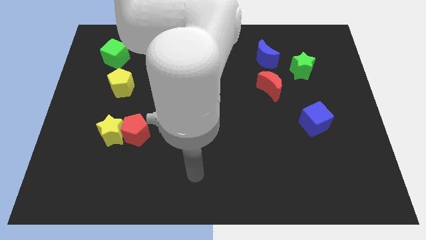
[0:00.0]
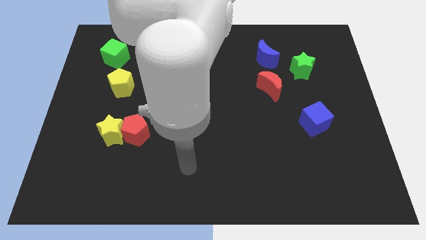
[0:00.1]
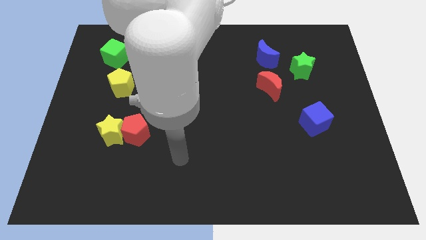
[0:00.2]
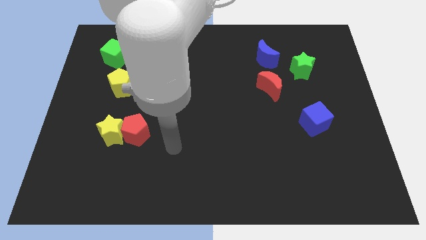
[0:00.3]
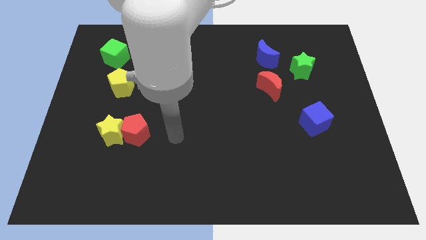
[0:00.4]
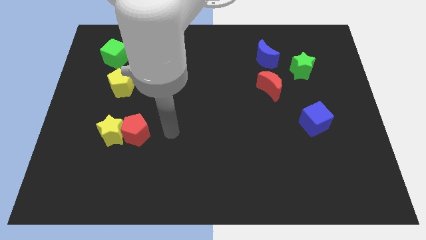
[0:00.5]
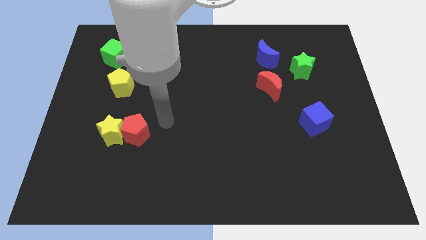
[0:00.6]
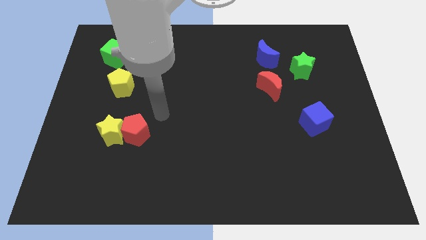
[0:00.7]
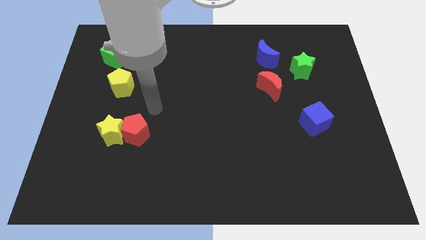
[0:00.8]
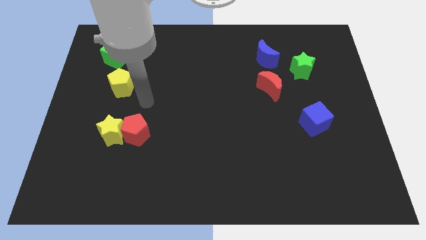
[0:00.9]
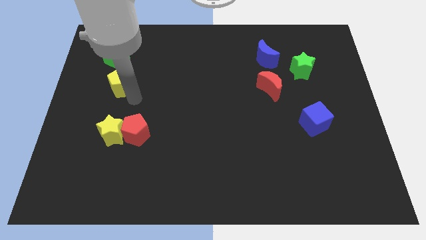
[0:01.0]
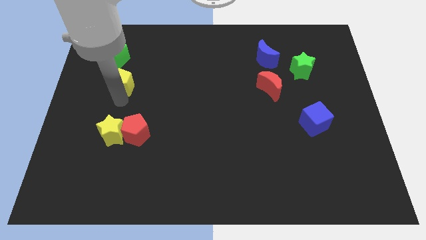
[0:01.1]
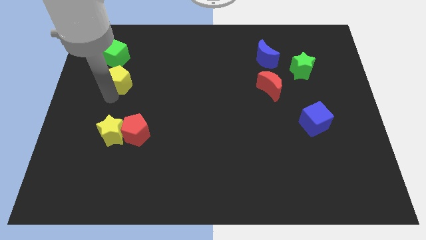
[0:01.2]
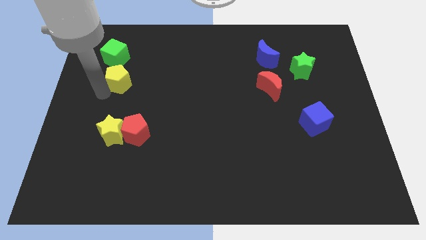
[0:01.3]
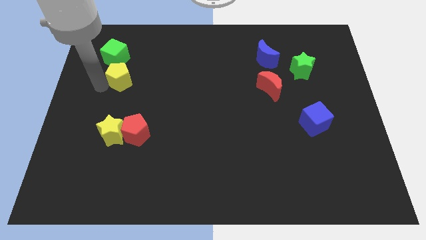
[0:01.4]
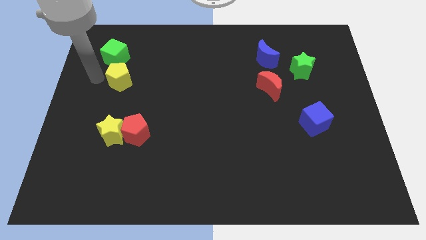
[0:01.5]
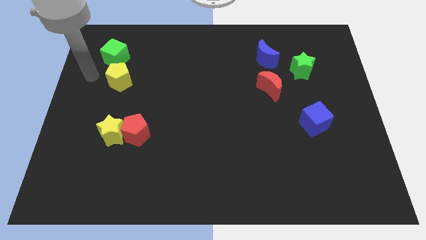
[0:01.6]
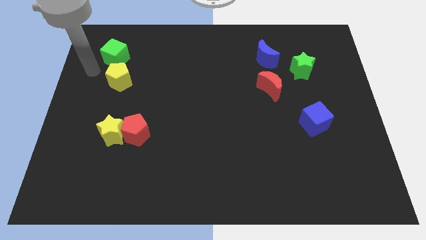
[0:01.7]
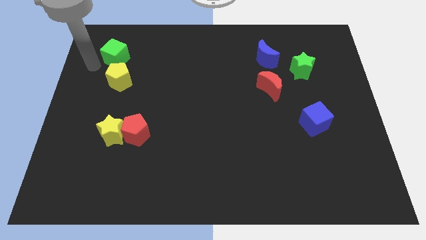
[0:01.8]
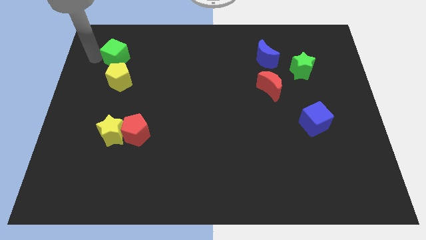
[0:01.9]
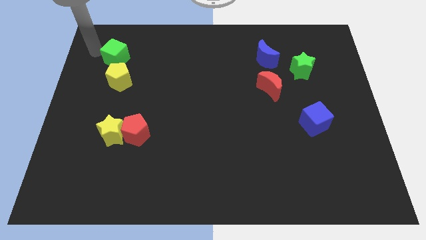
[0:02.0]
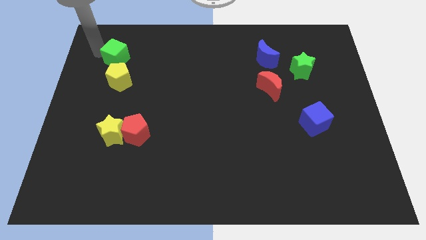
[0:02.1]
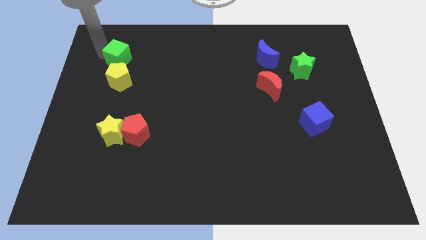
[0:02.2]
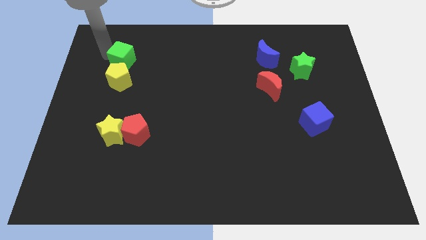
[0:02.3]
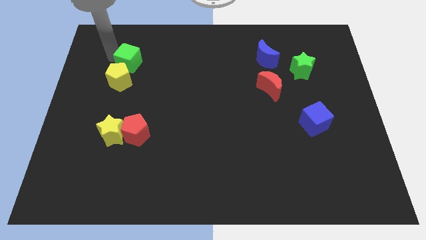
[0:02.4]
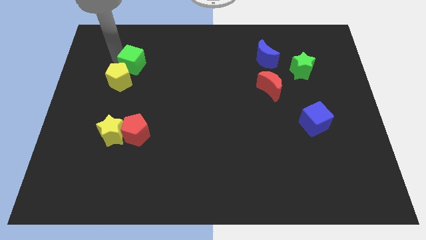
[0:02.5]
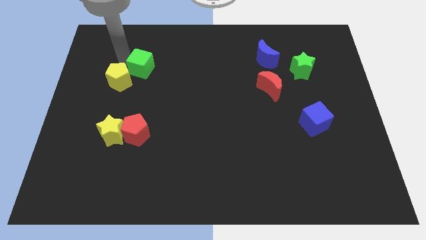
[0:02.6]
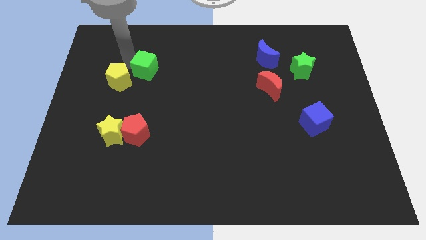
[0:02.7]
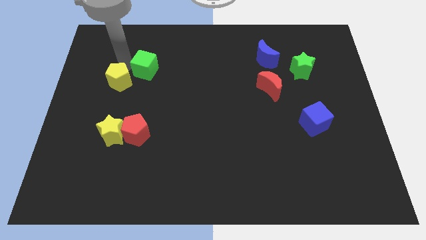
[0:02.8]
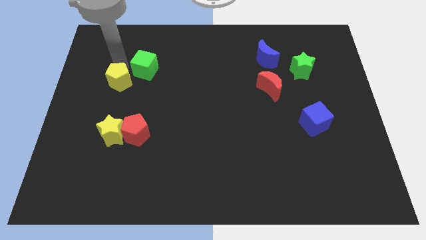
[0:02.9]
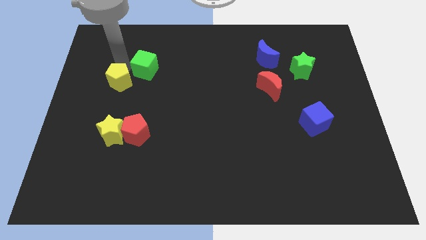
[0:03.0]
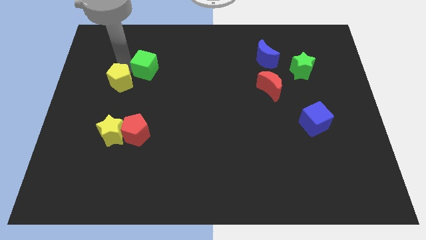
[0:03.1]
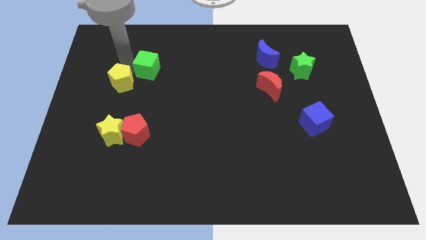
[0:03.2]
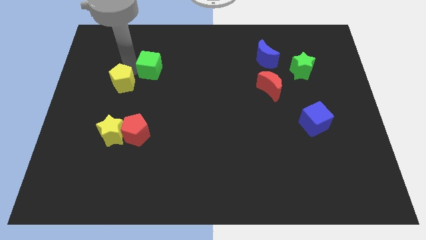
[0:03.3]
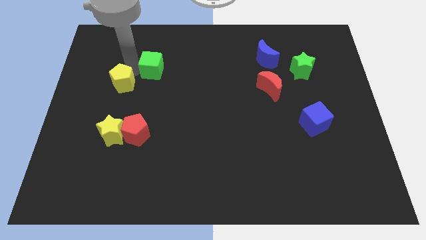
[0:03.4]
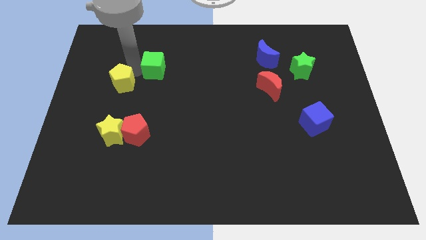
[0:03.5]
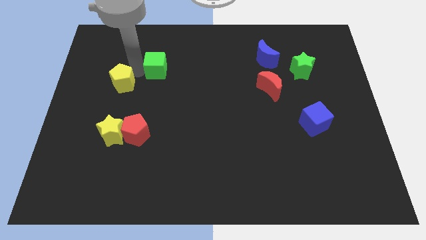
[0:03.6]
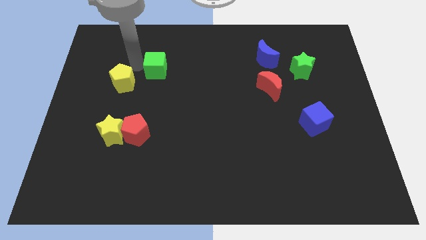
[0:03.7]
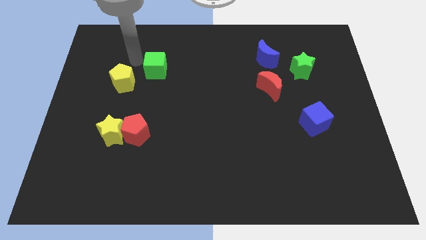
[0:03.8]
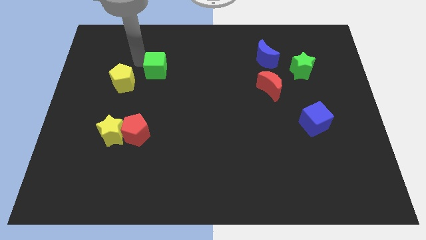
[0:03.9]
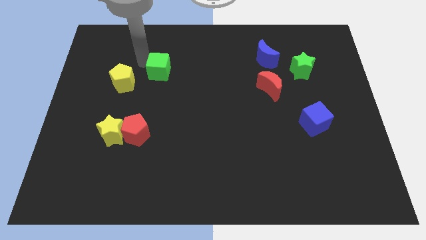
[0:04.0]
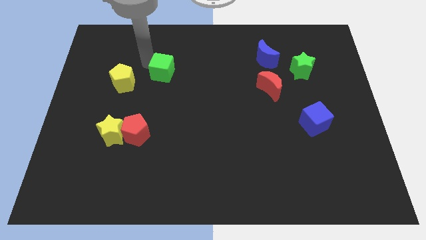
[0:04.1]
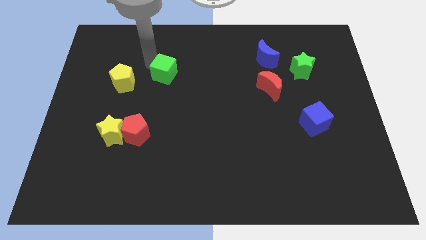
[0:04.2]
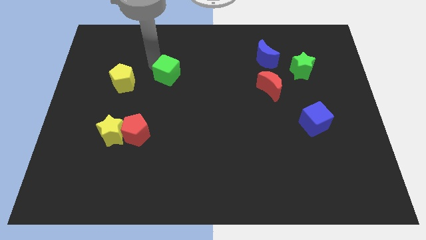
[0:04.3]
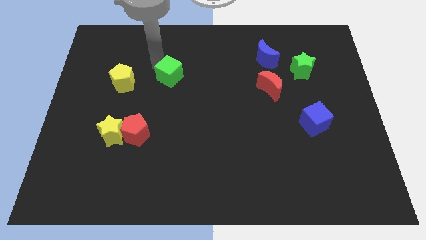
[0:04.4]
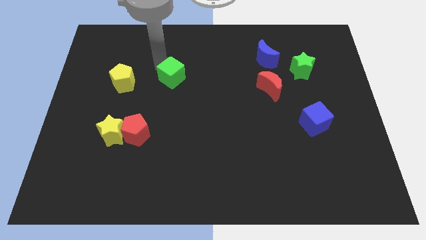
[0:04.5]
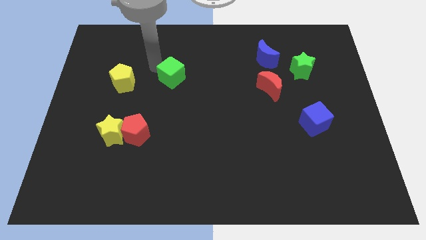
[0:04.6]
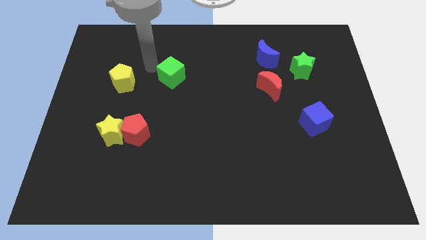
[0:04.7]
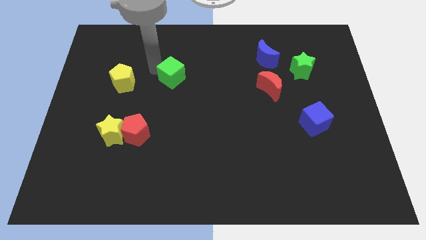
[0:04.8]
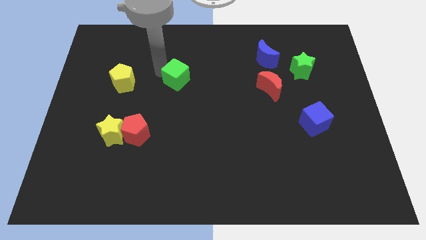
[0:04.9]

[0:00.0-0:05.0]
put the green cube to the middle

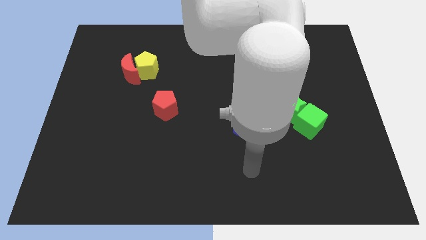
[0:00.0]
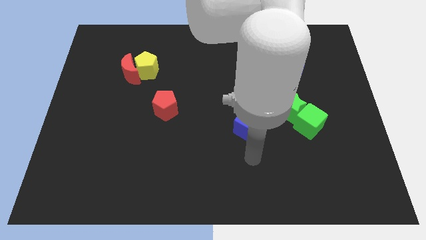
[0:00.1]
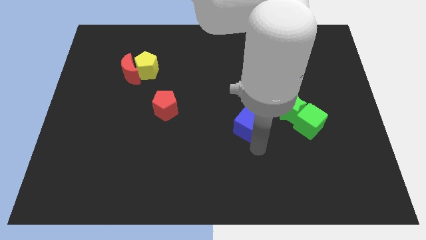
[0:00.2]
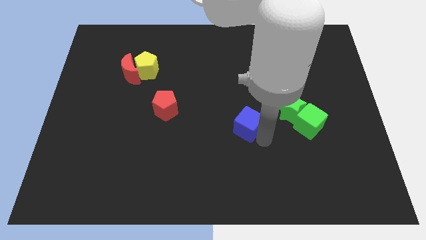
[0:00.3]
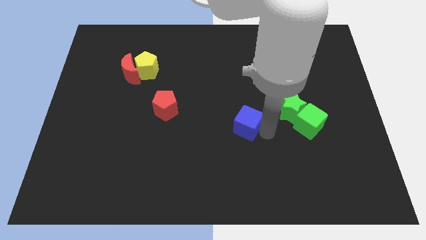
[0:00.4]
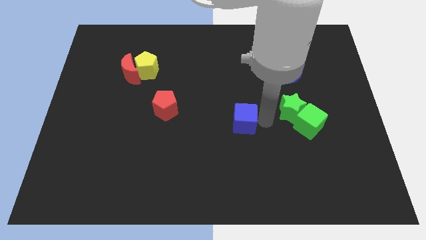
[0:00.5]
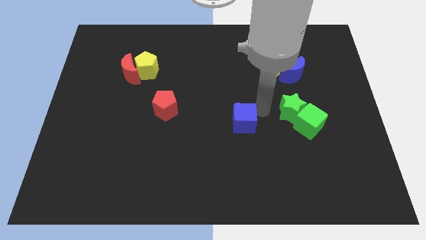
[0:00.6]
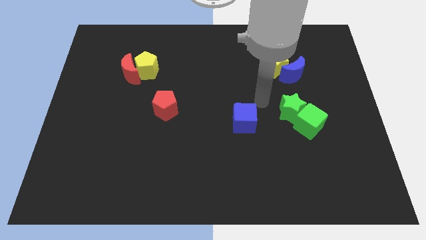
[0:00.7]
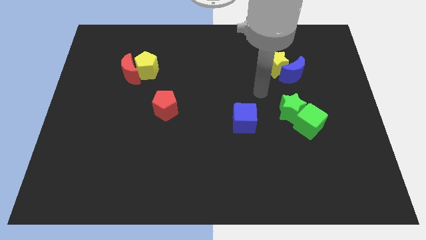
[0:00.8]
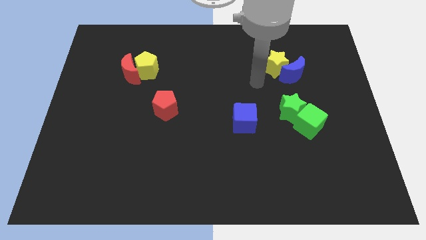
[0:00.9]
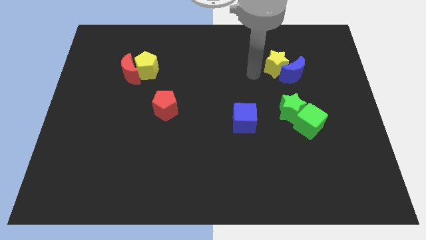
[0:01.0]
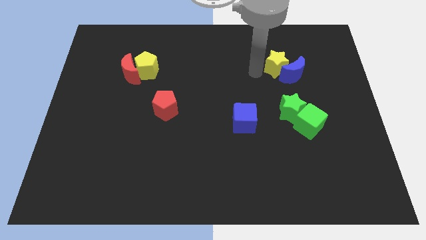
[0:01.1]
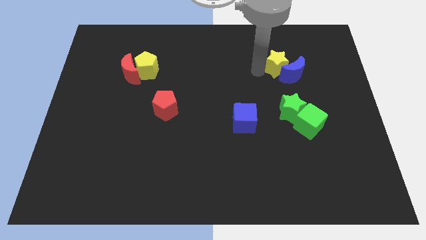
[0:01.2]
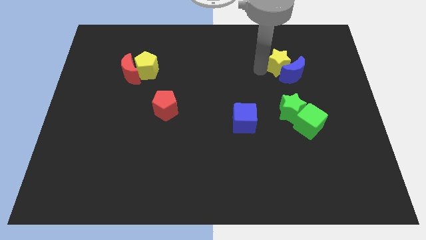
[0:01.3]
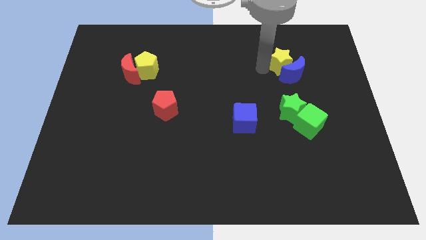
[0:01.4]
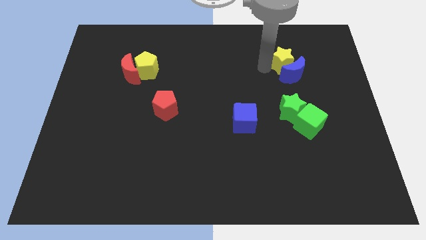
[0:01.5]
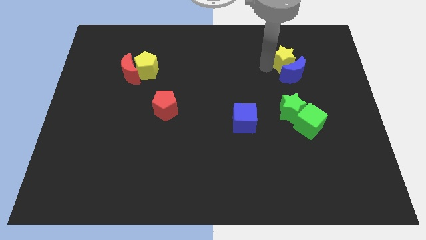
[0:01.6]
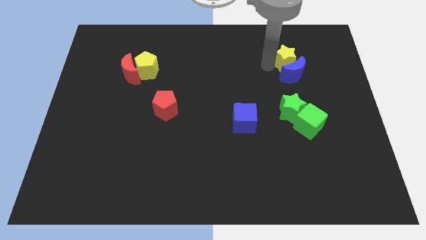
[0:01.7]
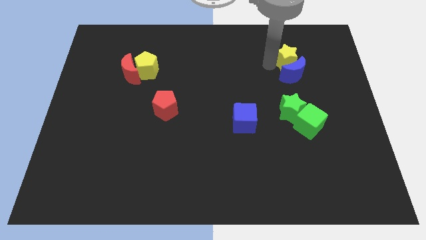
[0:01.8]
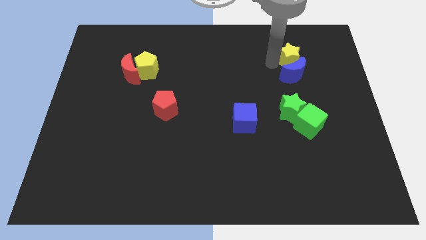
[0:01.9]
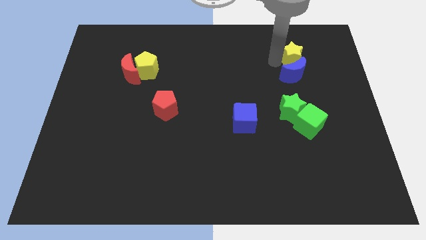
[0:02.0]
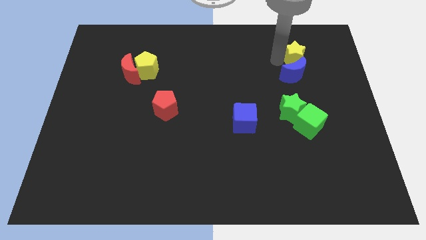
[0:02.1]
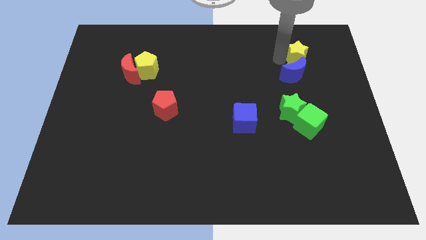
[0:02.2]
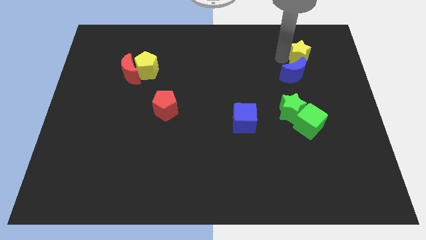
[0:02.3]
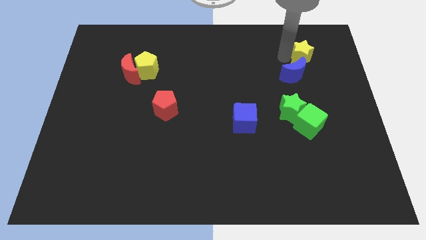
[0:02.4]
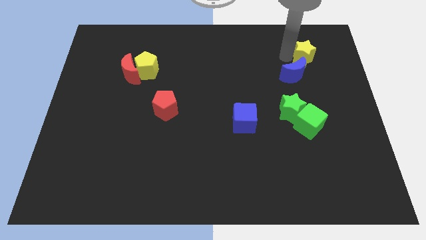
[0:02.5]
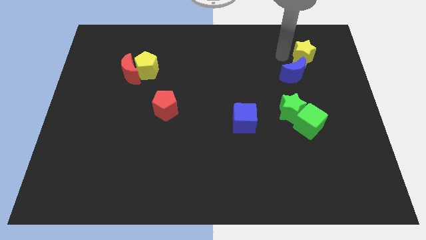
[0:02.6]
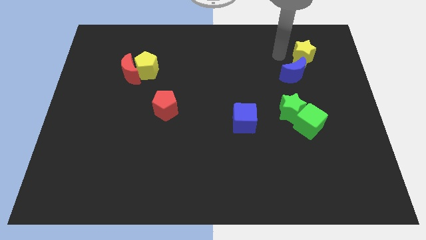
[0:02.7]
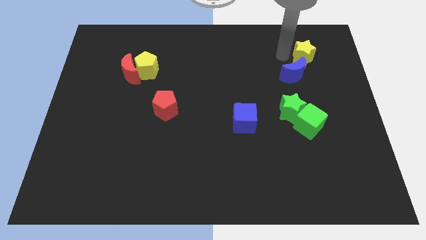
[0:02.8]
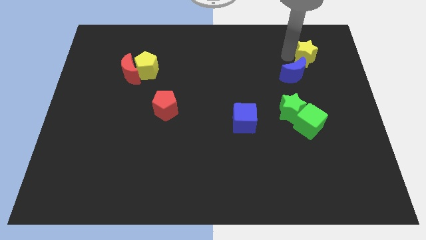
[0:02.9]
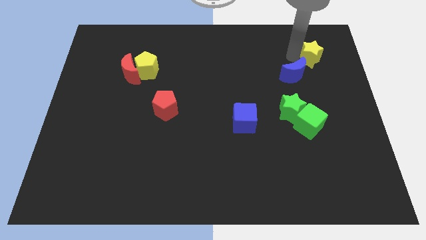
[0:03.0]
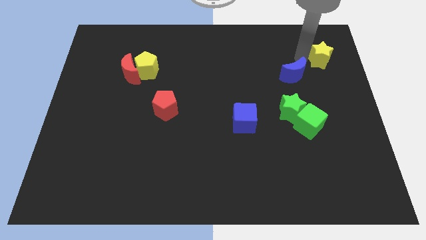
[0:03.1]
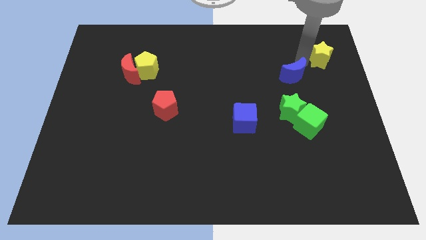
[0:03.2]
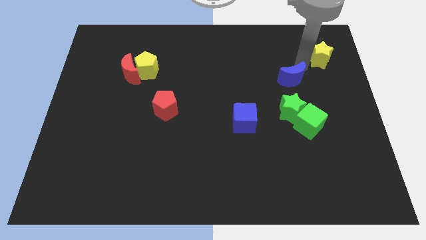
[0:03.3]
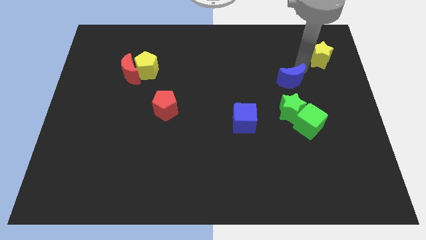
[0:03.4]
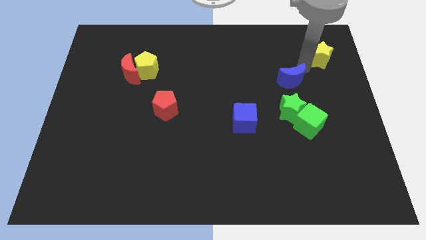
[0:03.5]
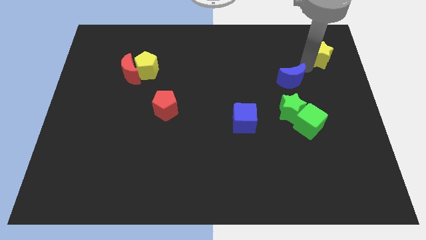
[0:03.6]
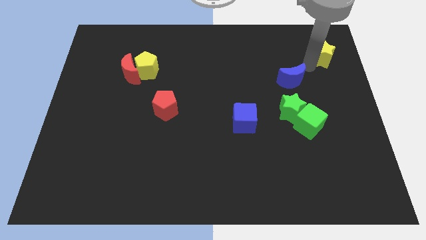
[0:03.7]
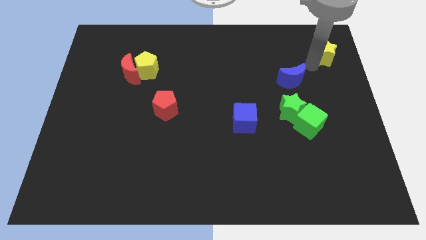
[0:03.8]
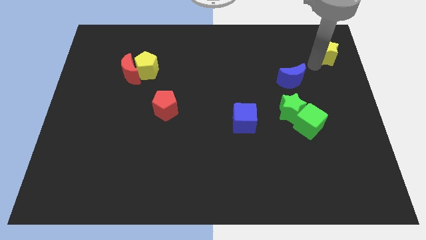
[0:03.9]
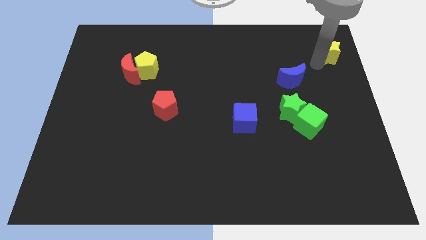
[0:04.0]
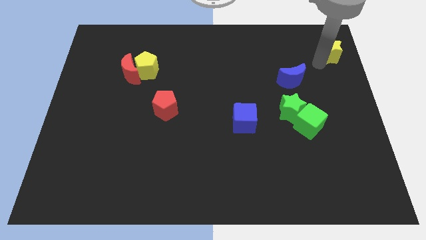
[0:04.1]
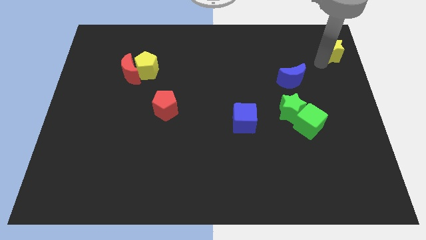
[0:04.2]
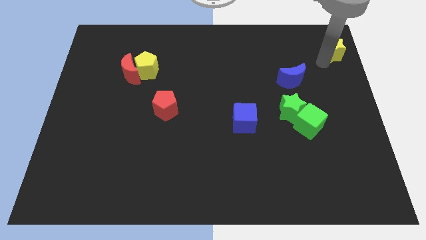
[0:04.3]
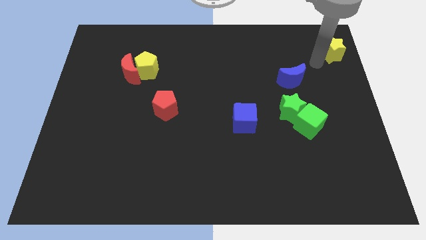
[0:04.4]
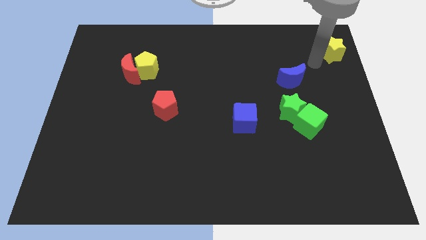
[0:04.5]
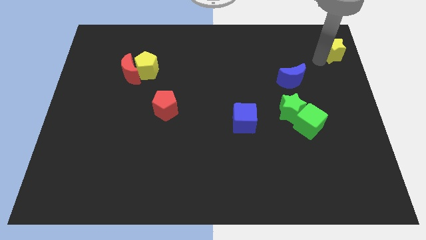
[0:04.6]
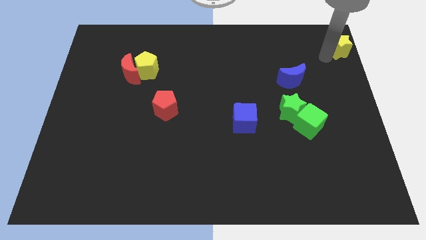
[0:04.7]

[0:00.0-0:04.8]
move the yellow star to the upper right corner
